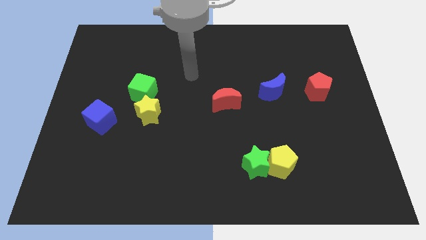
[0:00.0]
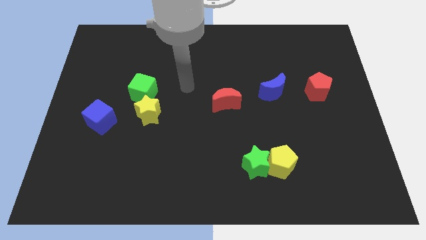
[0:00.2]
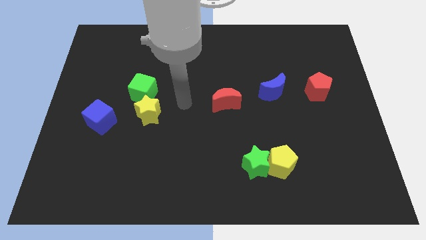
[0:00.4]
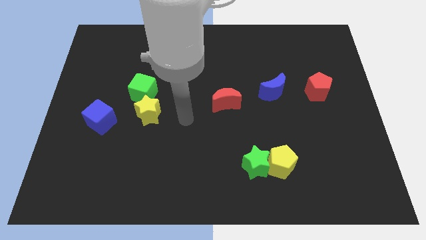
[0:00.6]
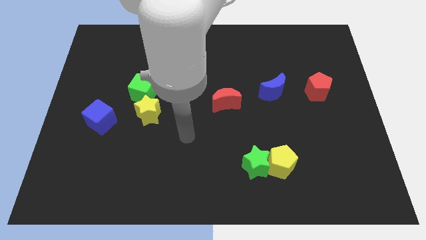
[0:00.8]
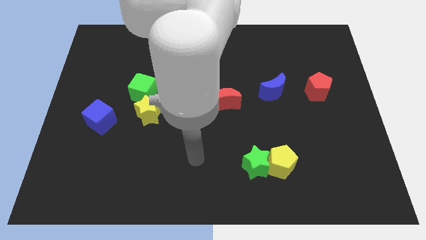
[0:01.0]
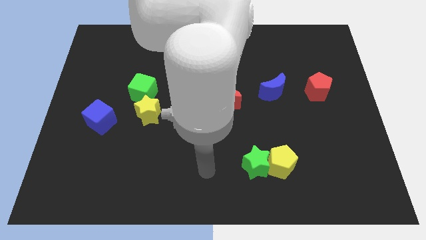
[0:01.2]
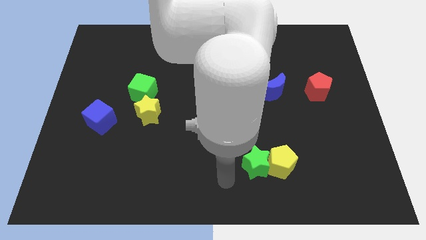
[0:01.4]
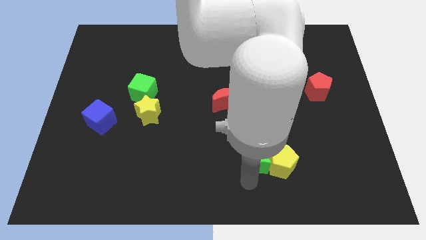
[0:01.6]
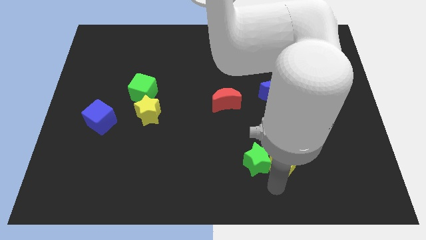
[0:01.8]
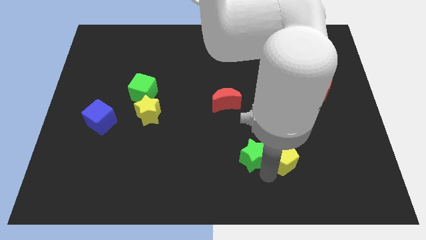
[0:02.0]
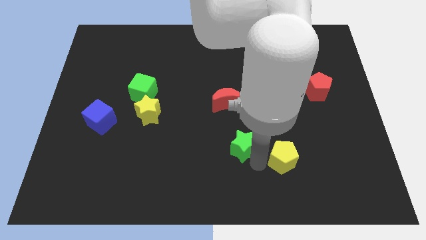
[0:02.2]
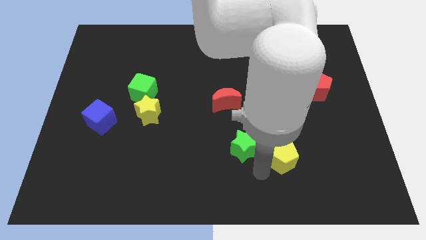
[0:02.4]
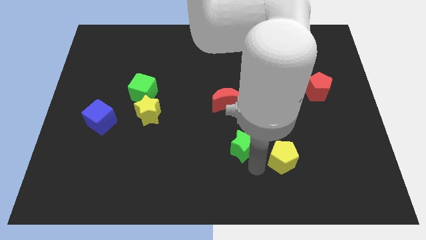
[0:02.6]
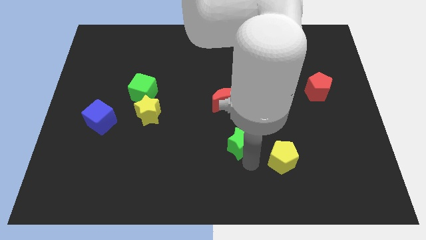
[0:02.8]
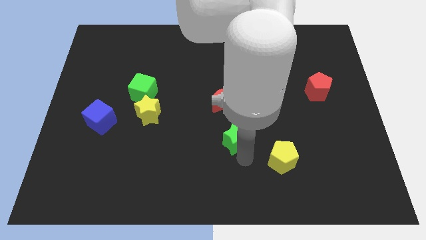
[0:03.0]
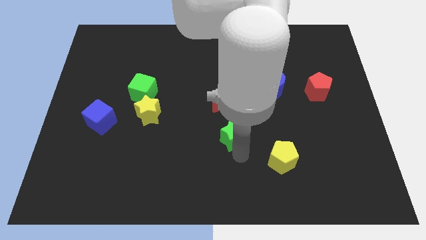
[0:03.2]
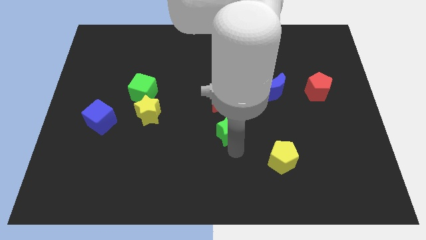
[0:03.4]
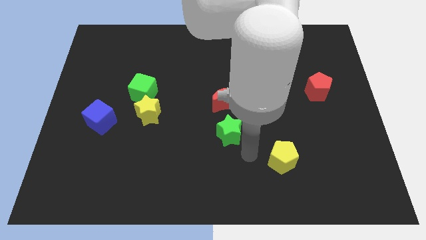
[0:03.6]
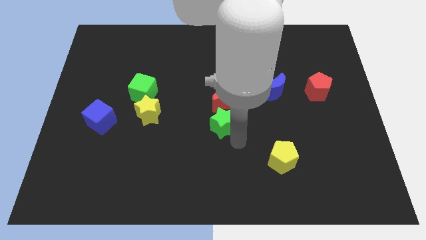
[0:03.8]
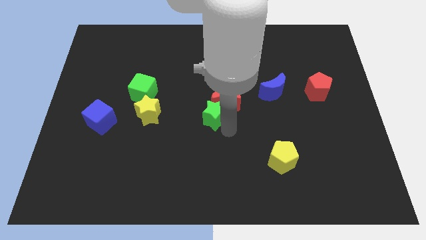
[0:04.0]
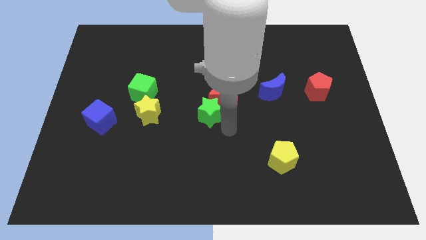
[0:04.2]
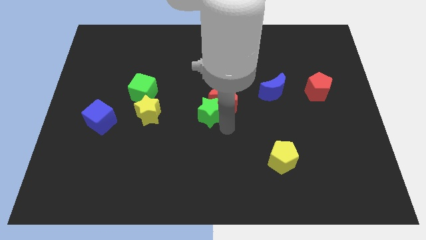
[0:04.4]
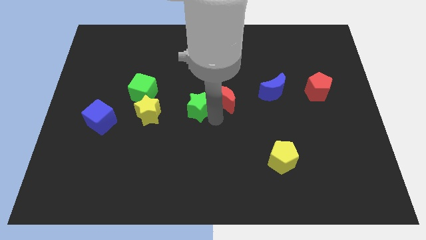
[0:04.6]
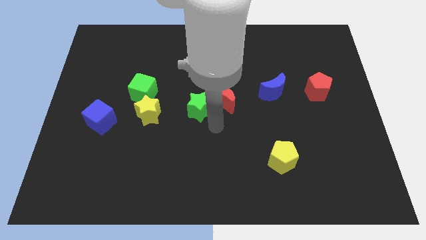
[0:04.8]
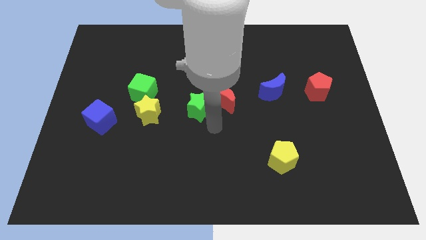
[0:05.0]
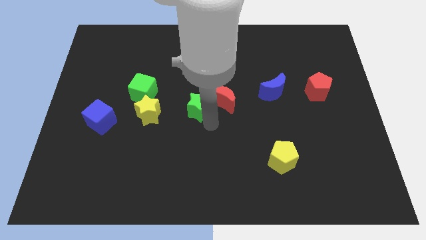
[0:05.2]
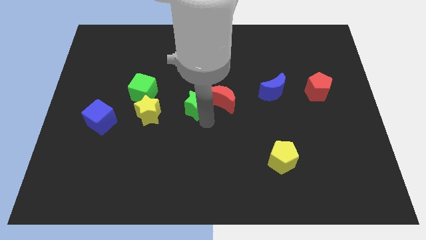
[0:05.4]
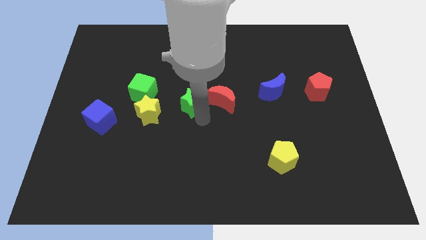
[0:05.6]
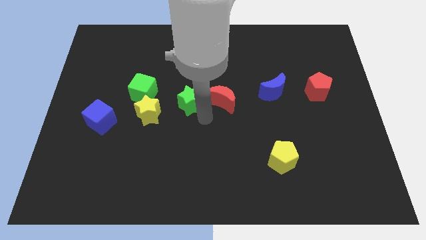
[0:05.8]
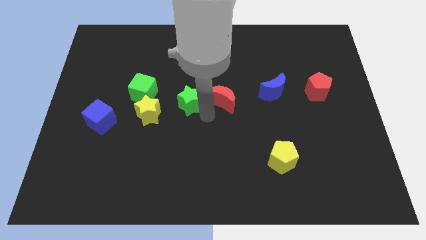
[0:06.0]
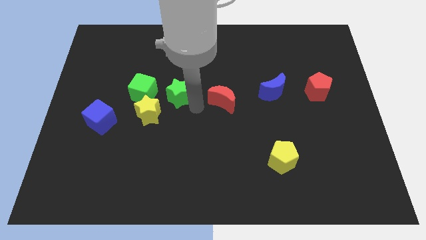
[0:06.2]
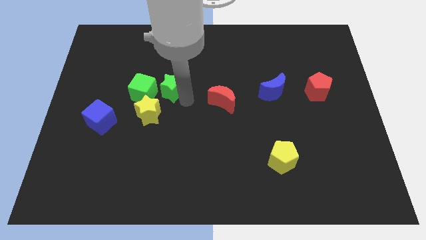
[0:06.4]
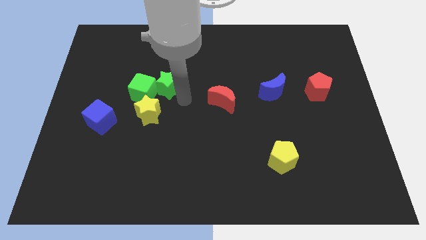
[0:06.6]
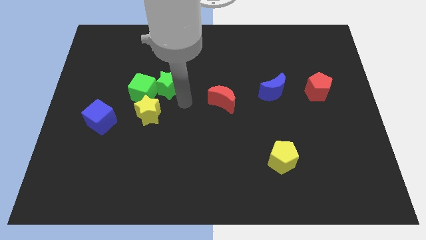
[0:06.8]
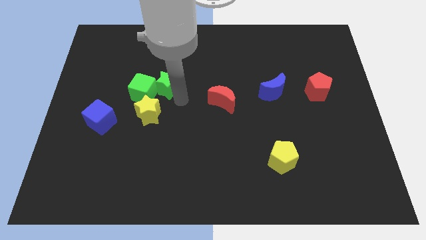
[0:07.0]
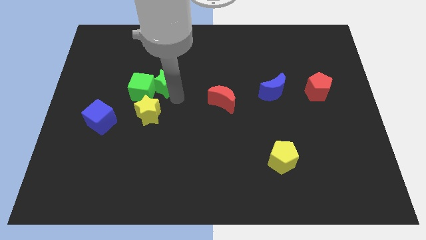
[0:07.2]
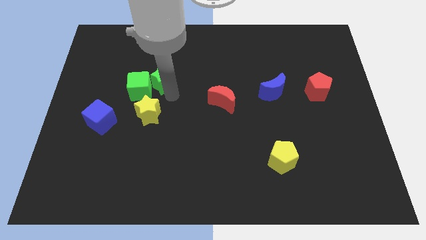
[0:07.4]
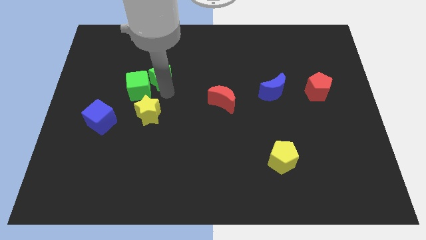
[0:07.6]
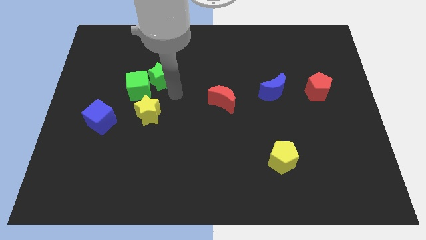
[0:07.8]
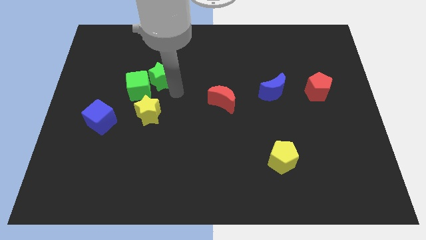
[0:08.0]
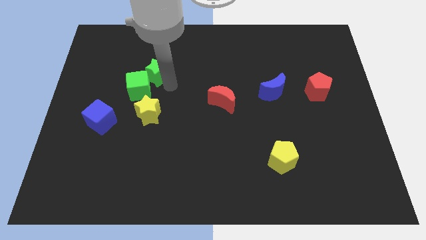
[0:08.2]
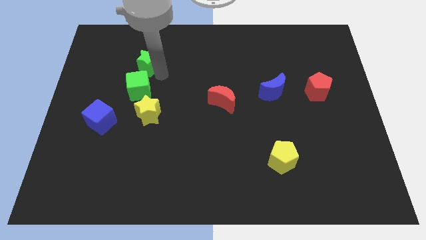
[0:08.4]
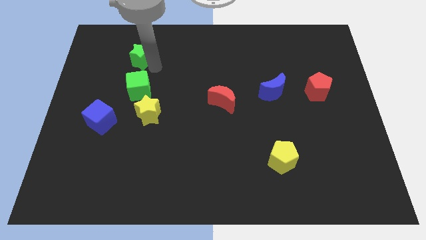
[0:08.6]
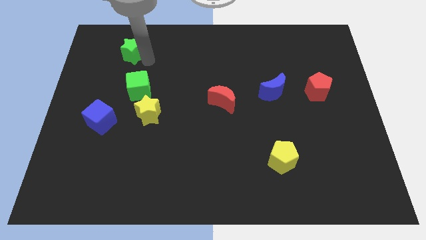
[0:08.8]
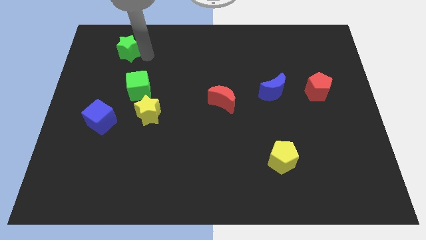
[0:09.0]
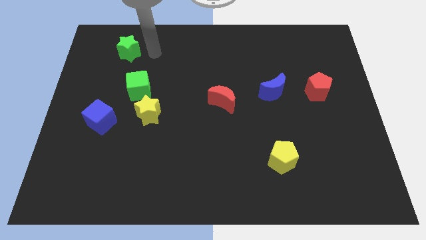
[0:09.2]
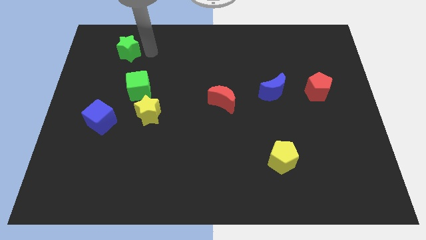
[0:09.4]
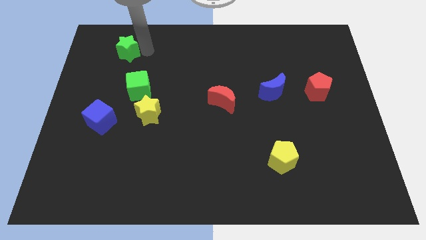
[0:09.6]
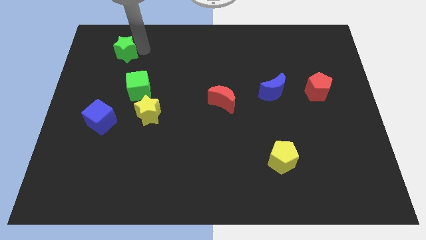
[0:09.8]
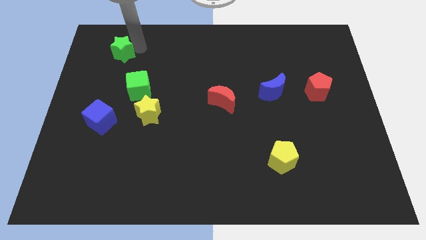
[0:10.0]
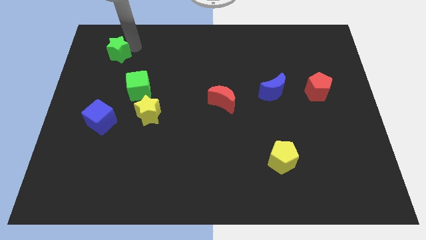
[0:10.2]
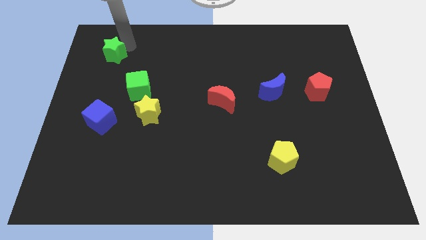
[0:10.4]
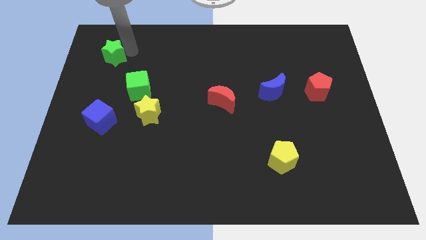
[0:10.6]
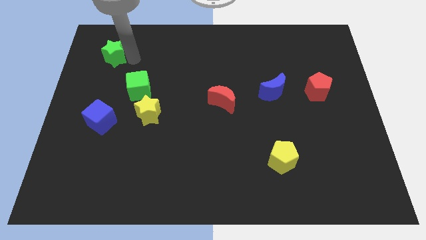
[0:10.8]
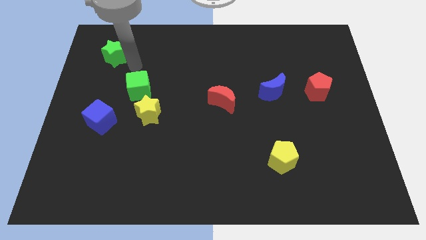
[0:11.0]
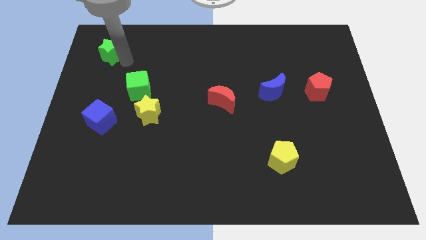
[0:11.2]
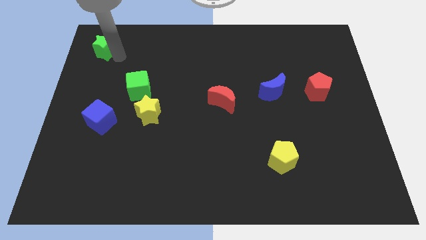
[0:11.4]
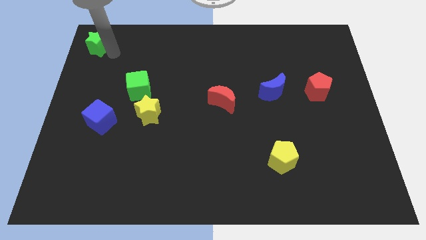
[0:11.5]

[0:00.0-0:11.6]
move the green star to the top left of the board

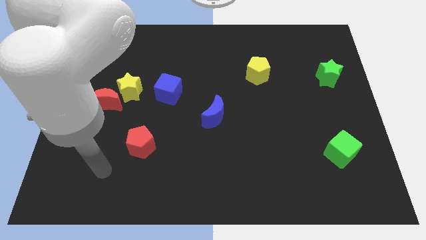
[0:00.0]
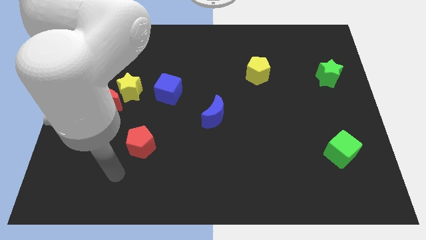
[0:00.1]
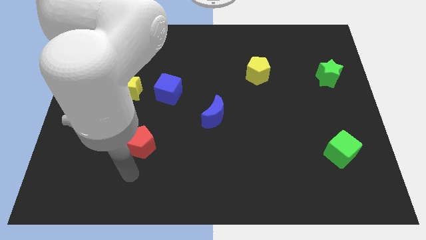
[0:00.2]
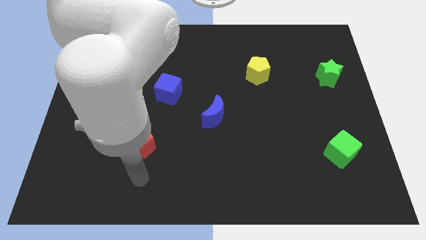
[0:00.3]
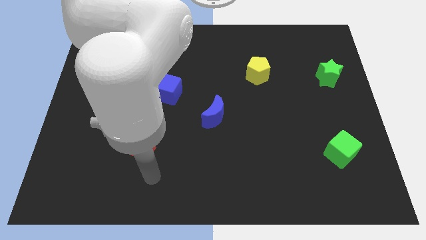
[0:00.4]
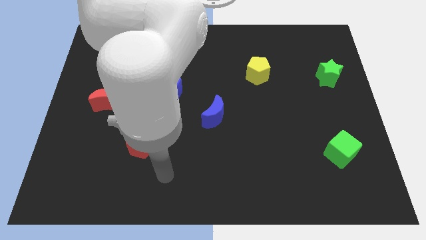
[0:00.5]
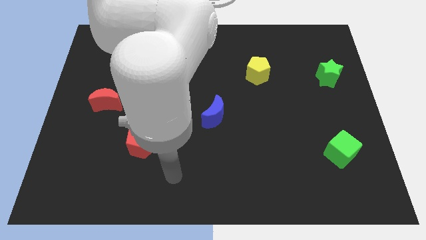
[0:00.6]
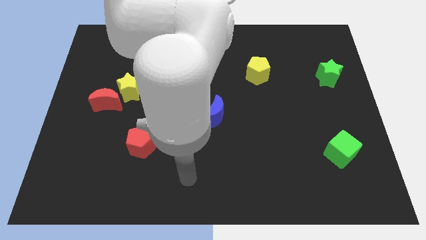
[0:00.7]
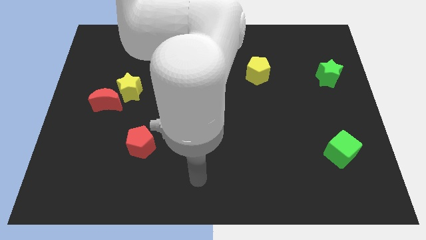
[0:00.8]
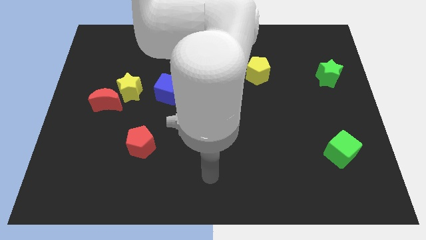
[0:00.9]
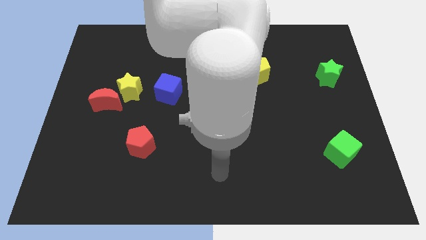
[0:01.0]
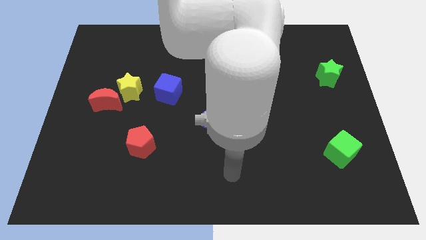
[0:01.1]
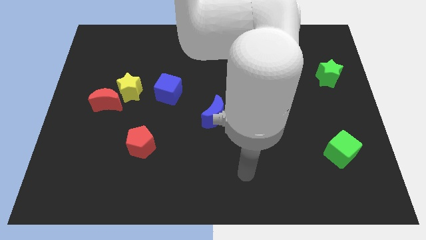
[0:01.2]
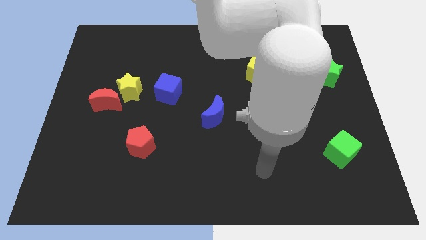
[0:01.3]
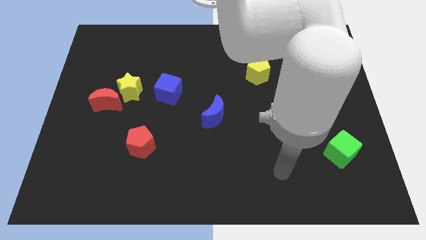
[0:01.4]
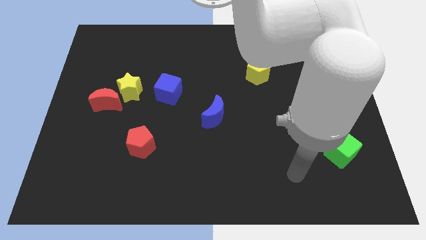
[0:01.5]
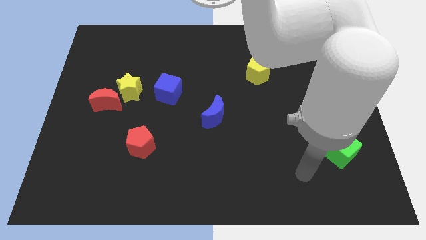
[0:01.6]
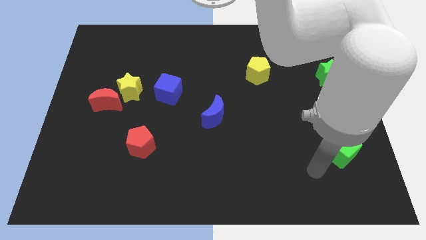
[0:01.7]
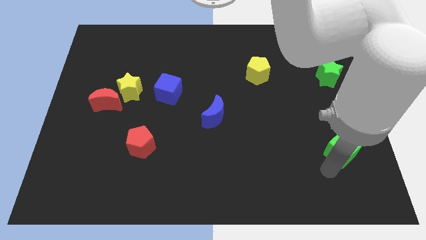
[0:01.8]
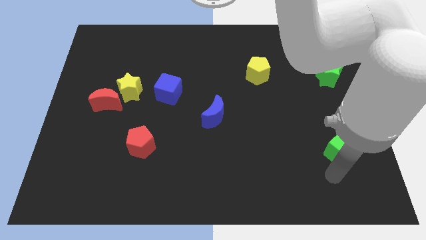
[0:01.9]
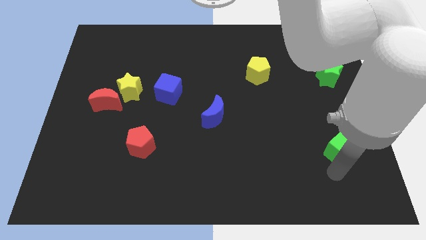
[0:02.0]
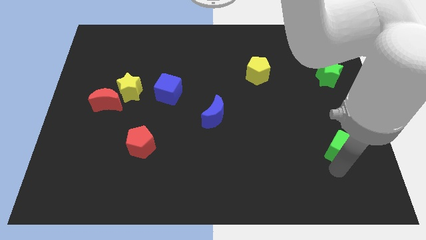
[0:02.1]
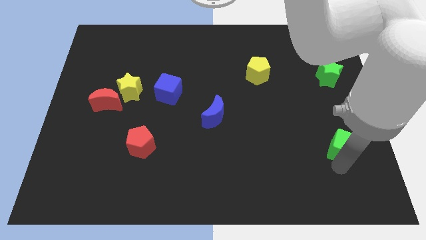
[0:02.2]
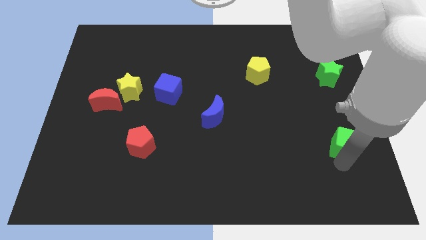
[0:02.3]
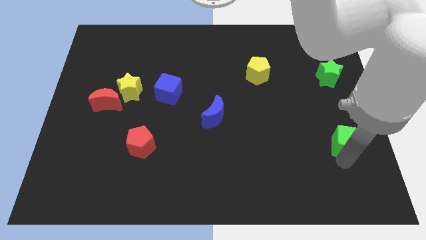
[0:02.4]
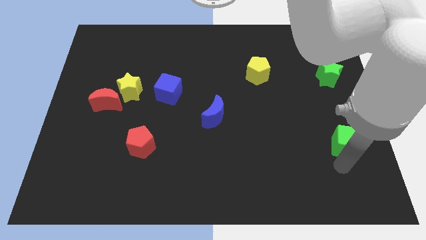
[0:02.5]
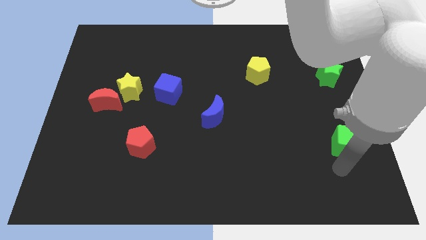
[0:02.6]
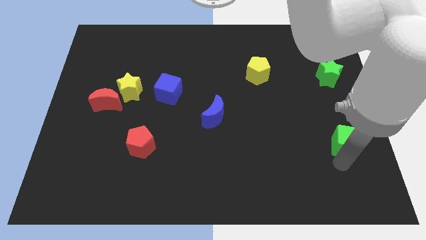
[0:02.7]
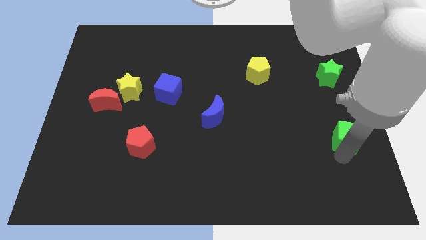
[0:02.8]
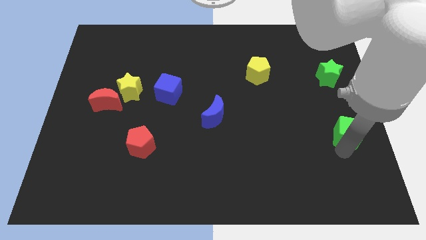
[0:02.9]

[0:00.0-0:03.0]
slide the green cube to the right side of the board
